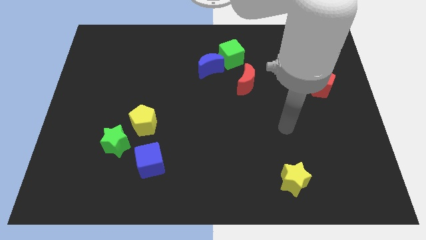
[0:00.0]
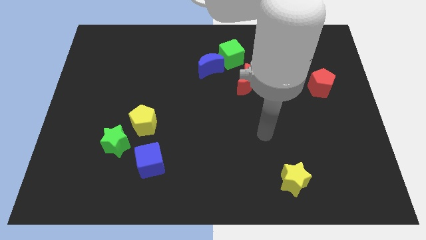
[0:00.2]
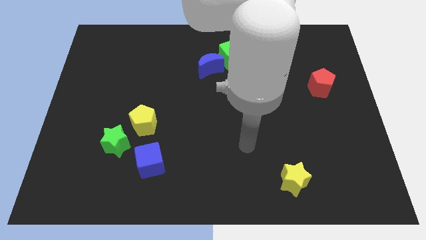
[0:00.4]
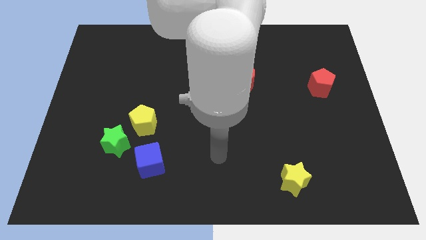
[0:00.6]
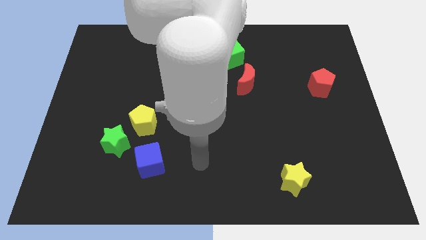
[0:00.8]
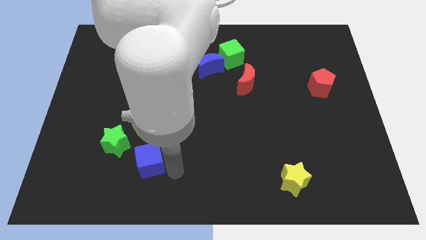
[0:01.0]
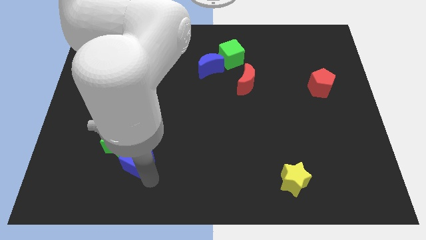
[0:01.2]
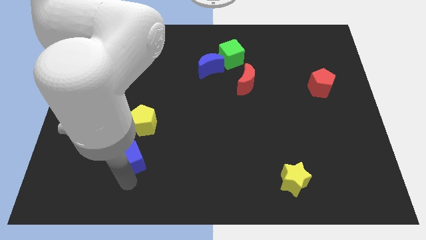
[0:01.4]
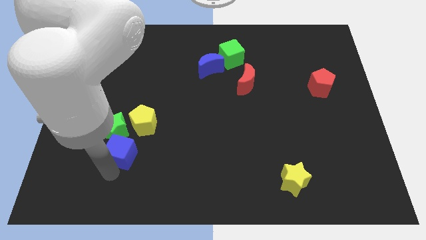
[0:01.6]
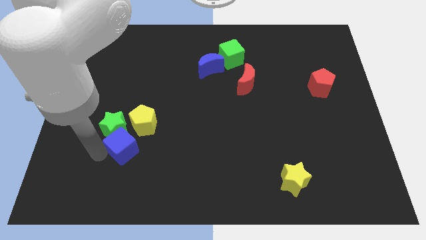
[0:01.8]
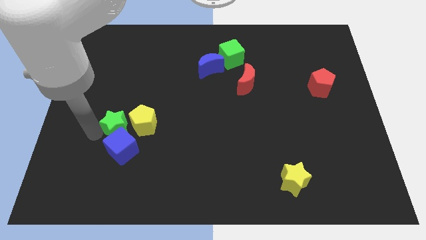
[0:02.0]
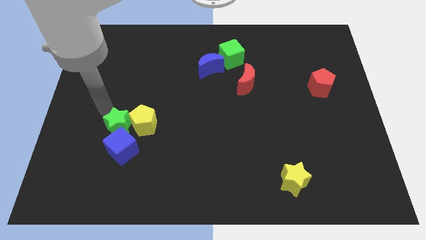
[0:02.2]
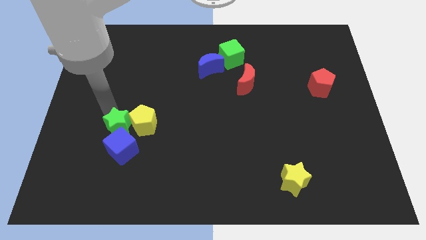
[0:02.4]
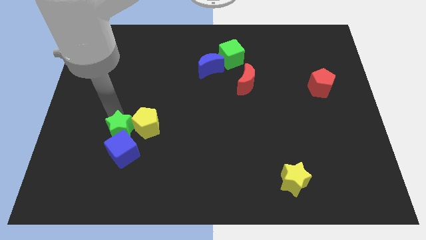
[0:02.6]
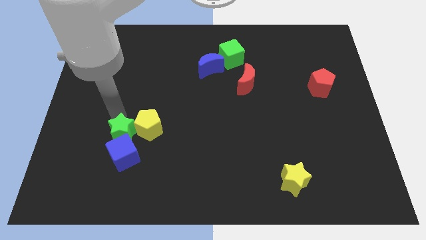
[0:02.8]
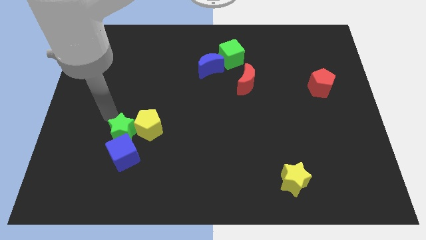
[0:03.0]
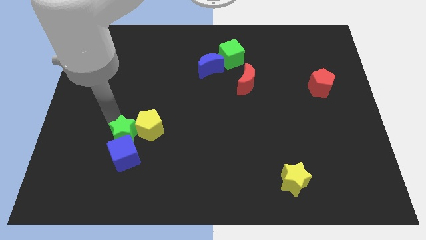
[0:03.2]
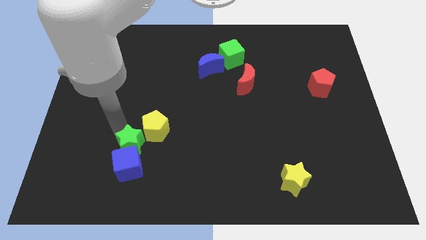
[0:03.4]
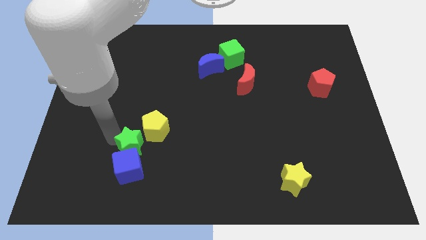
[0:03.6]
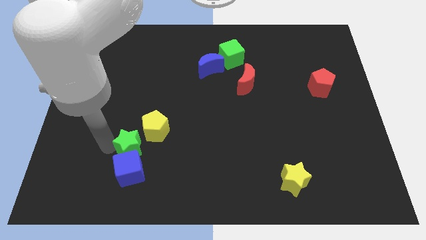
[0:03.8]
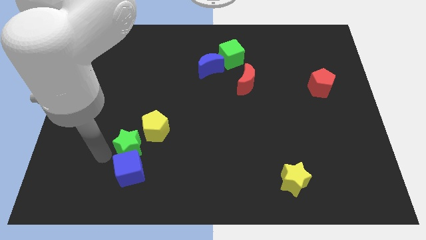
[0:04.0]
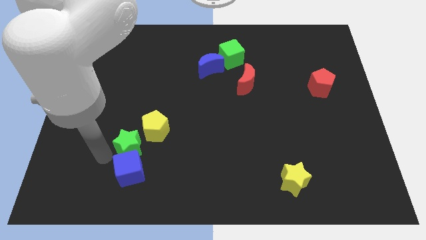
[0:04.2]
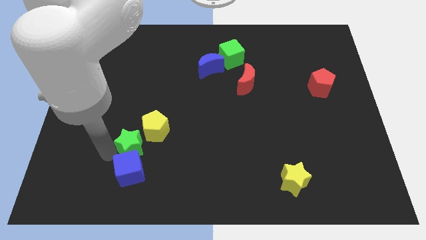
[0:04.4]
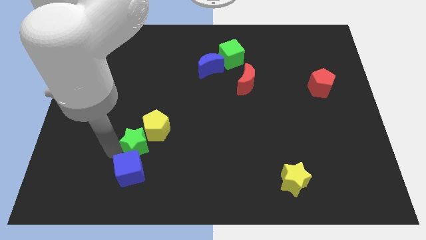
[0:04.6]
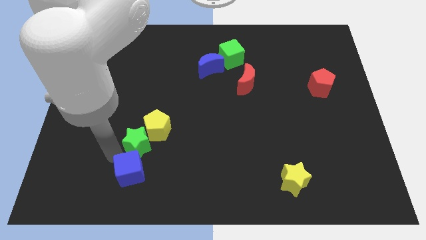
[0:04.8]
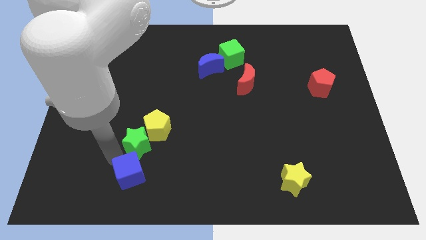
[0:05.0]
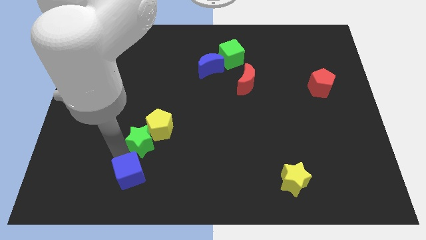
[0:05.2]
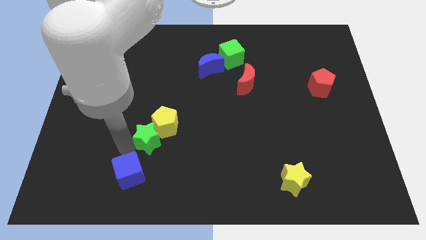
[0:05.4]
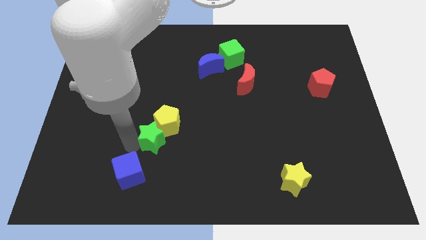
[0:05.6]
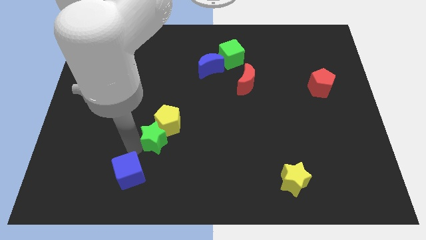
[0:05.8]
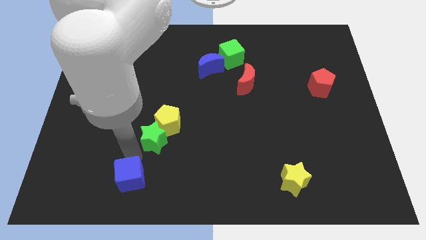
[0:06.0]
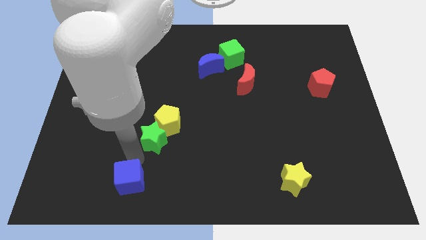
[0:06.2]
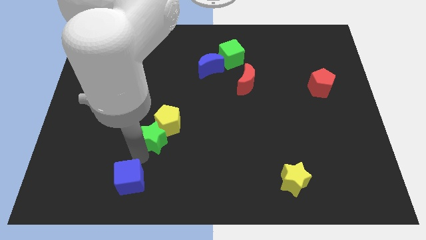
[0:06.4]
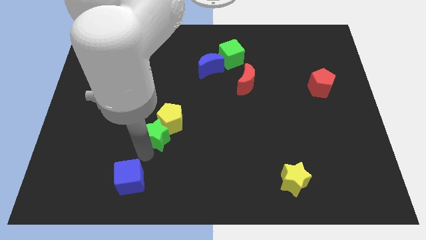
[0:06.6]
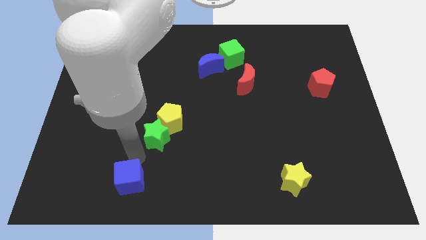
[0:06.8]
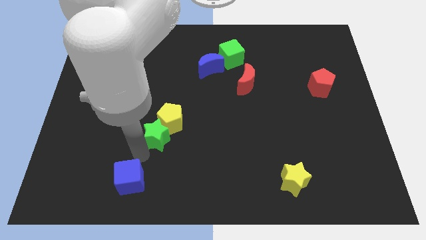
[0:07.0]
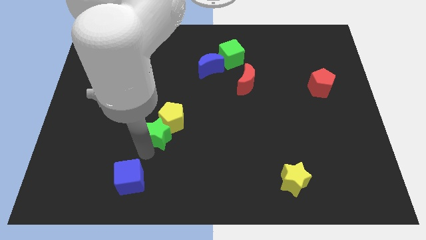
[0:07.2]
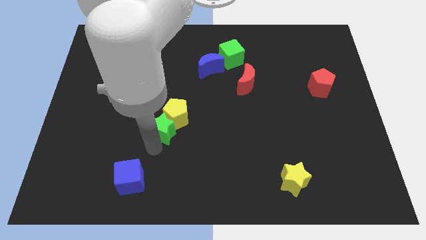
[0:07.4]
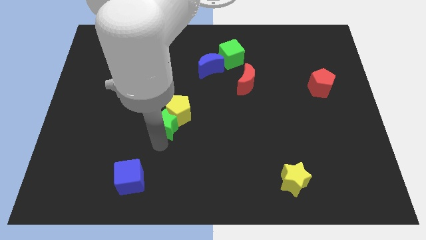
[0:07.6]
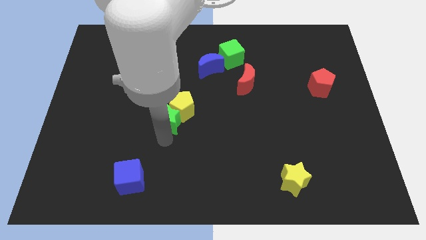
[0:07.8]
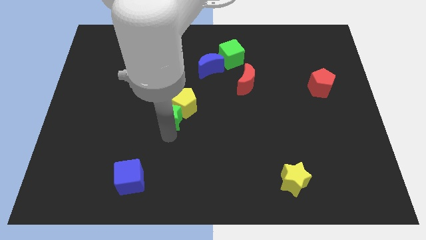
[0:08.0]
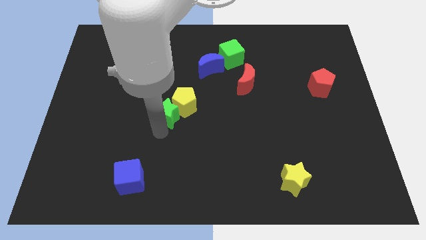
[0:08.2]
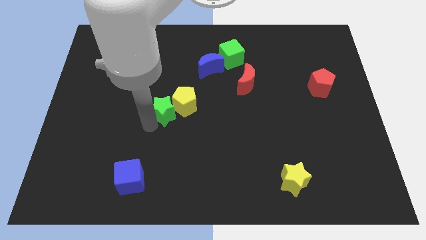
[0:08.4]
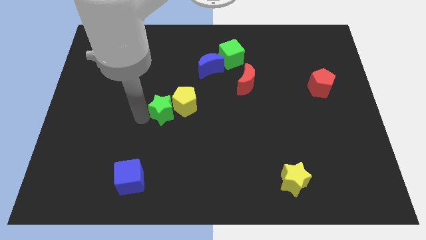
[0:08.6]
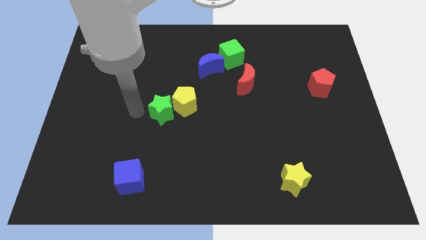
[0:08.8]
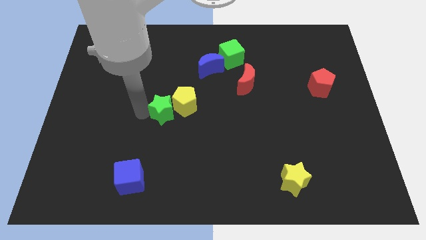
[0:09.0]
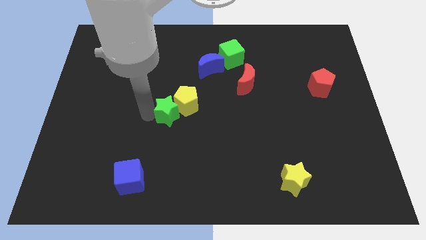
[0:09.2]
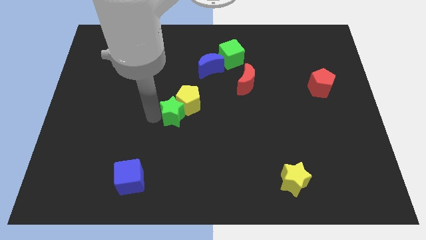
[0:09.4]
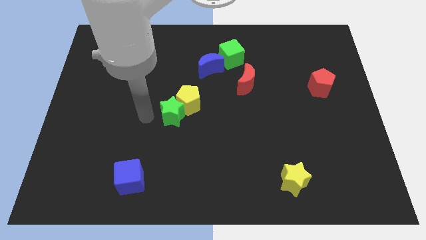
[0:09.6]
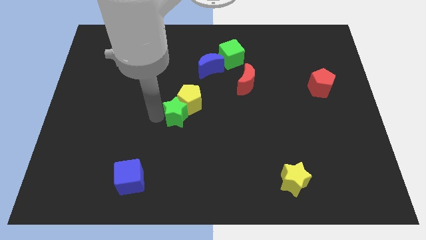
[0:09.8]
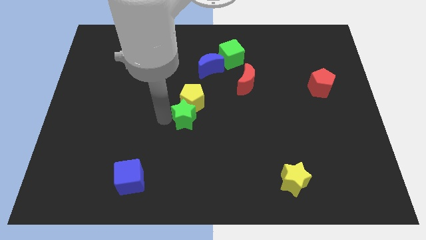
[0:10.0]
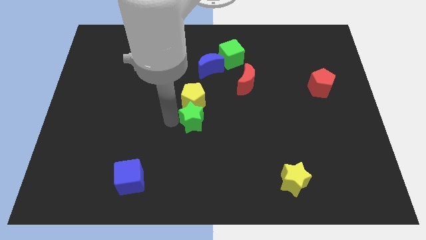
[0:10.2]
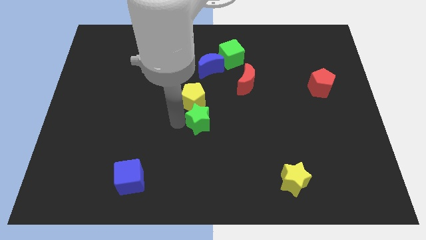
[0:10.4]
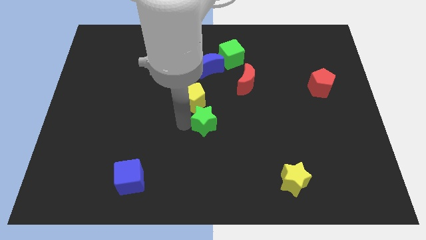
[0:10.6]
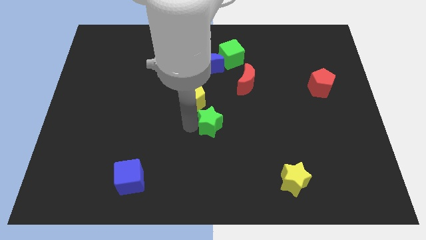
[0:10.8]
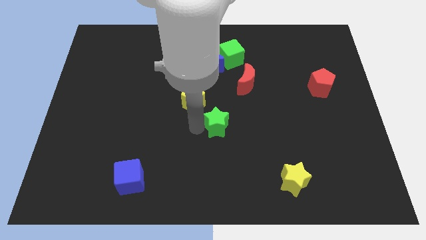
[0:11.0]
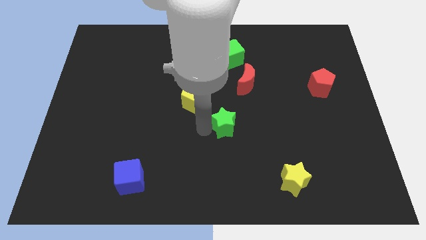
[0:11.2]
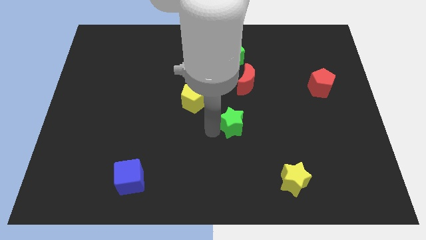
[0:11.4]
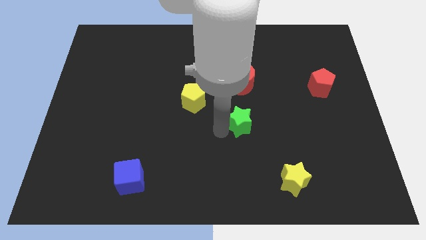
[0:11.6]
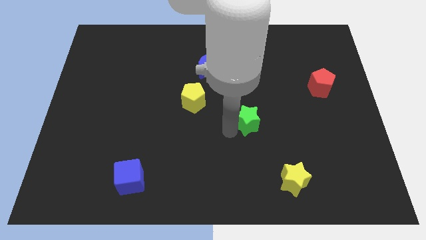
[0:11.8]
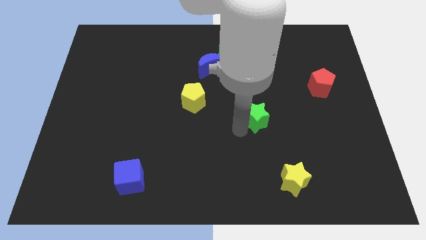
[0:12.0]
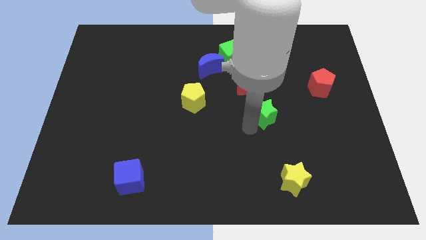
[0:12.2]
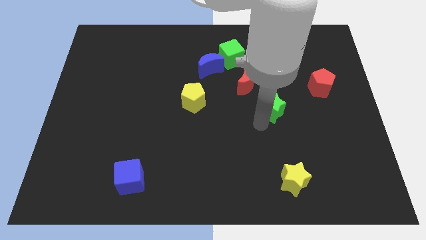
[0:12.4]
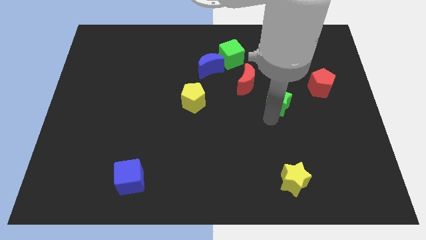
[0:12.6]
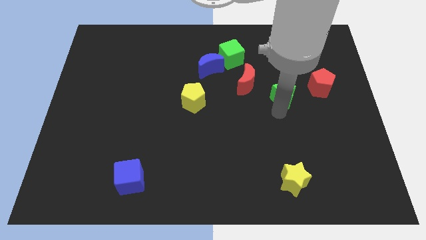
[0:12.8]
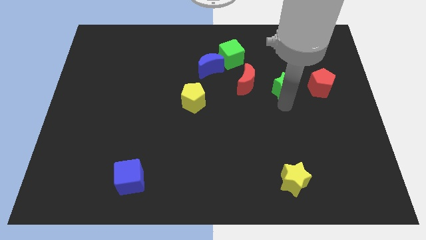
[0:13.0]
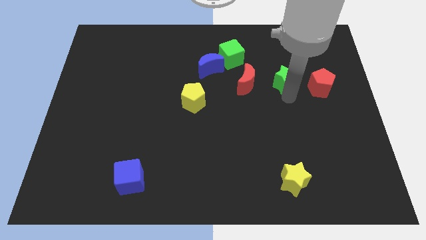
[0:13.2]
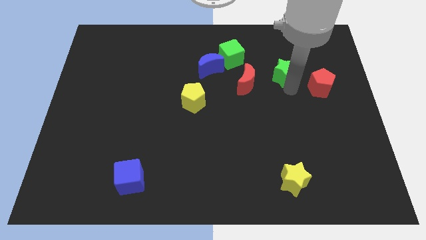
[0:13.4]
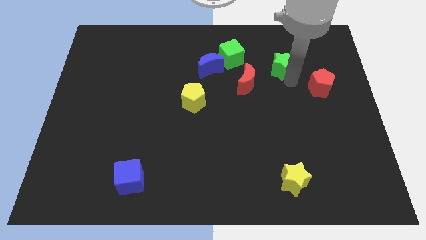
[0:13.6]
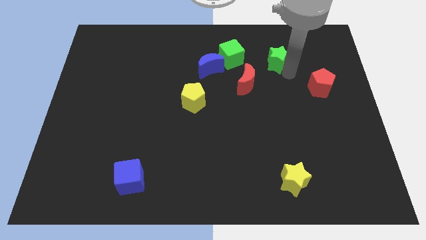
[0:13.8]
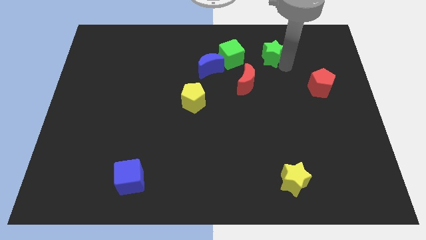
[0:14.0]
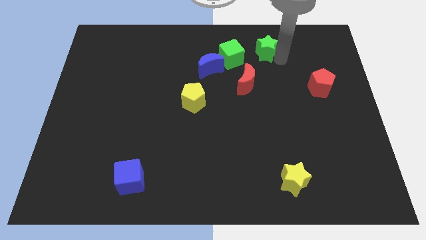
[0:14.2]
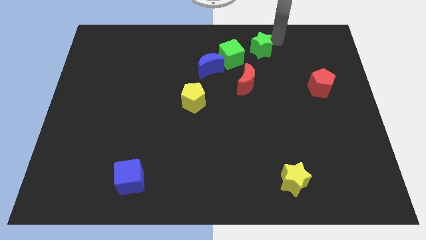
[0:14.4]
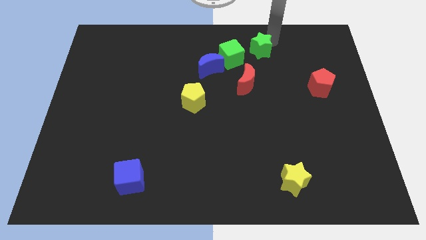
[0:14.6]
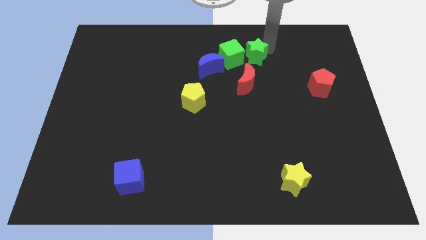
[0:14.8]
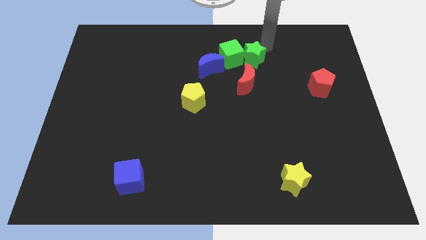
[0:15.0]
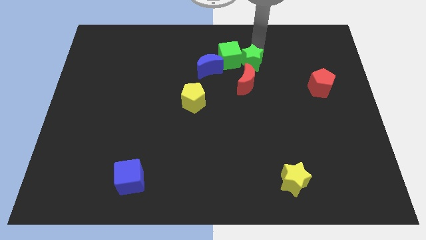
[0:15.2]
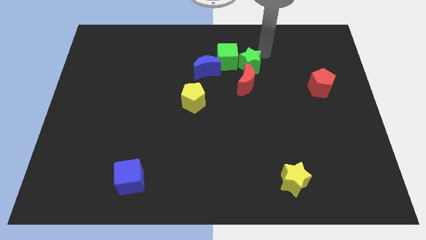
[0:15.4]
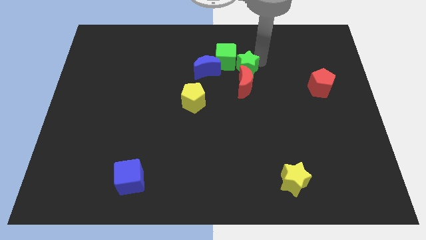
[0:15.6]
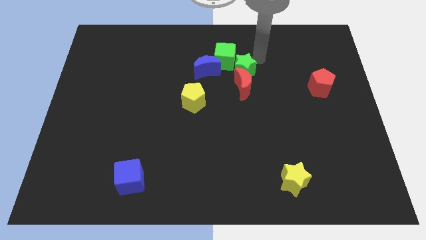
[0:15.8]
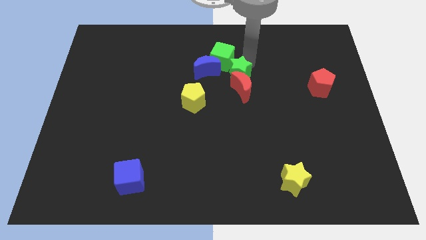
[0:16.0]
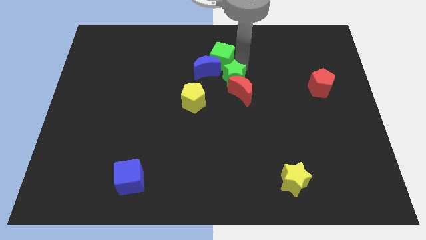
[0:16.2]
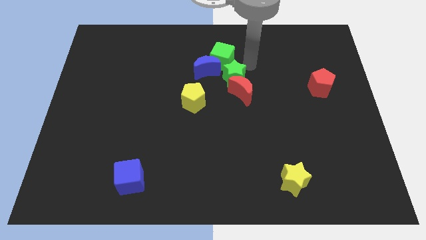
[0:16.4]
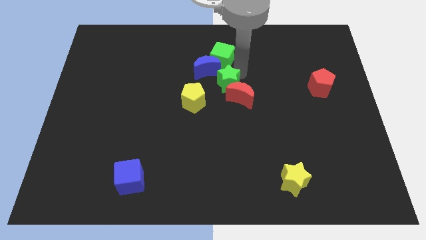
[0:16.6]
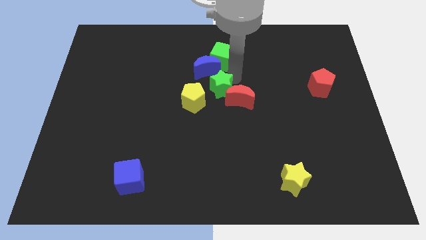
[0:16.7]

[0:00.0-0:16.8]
put the green star below the blue moon
